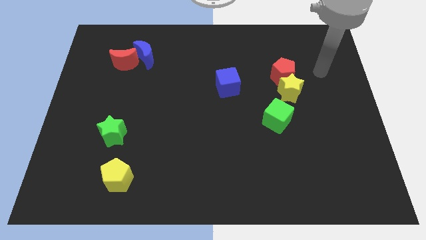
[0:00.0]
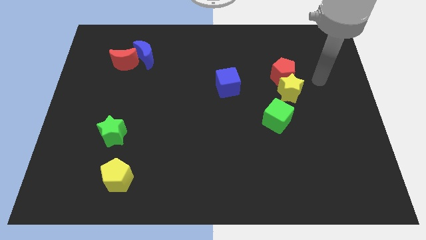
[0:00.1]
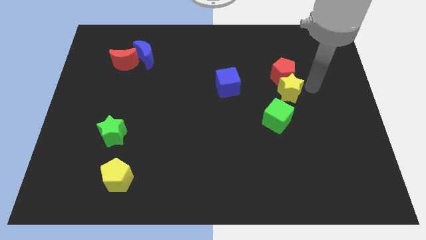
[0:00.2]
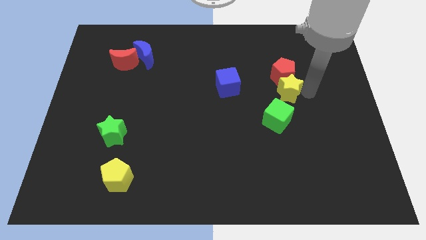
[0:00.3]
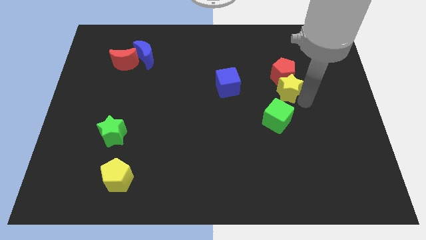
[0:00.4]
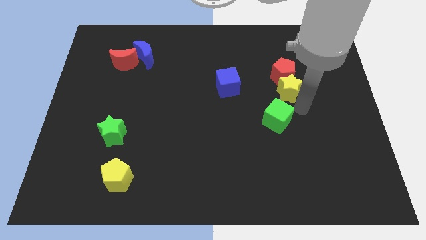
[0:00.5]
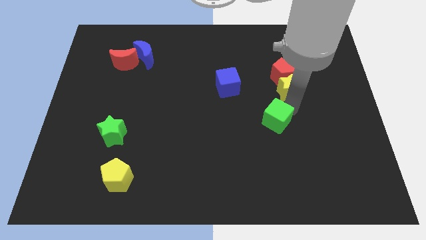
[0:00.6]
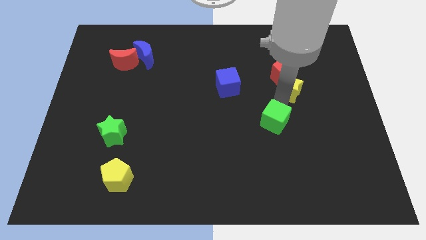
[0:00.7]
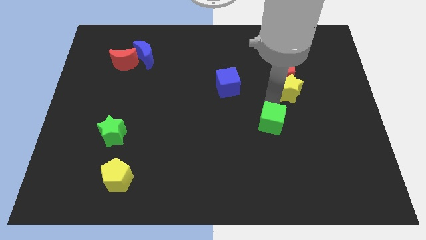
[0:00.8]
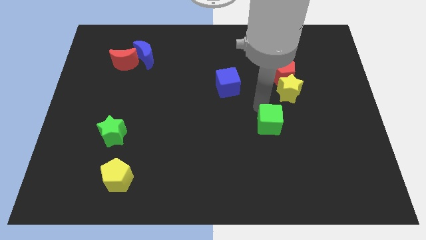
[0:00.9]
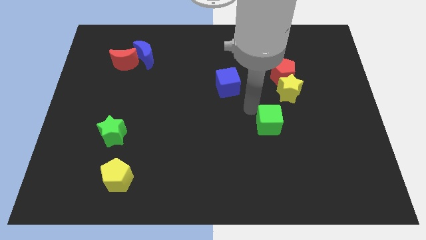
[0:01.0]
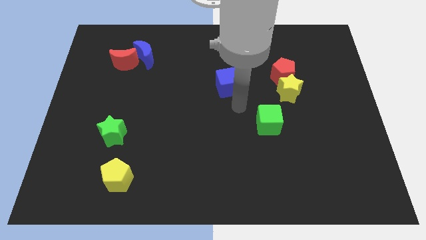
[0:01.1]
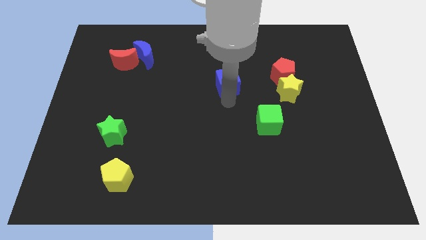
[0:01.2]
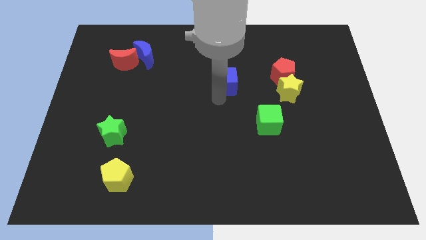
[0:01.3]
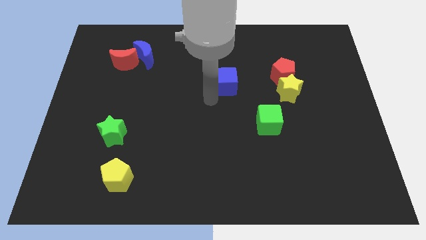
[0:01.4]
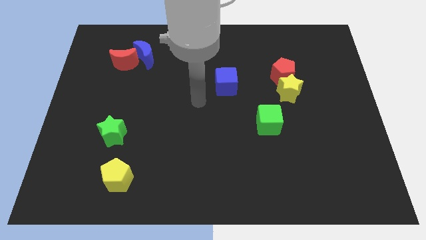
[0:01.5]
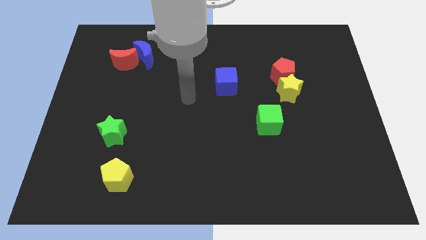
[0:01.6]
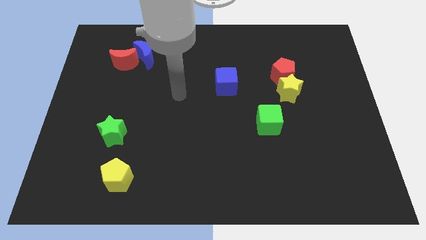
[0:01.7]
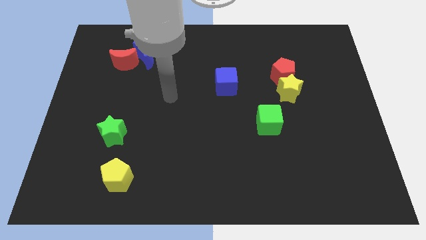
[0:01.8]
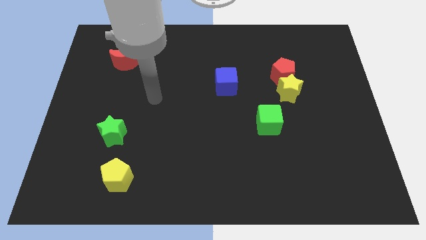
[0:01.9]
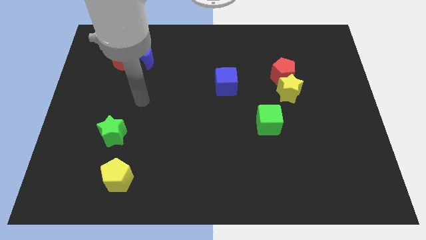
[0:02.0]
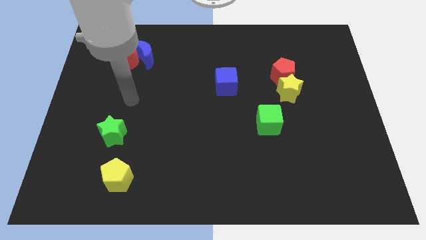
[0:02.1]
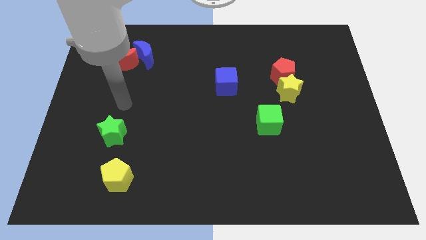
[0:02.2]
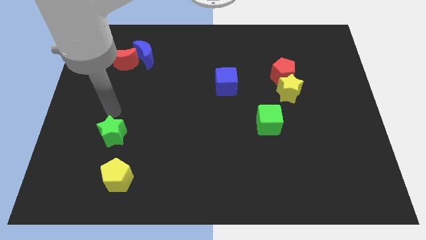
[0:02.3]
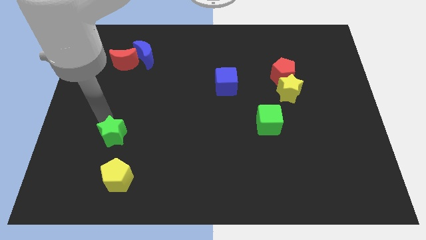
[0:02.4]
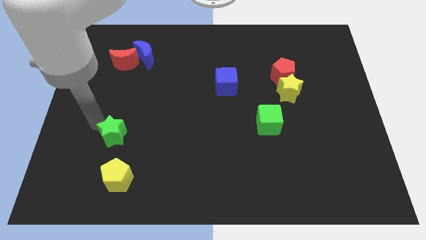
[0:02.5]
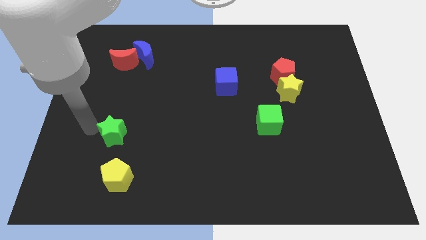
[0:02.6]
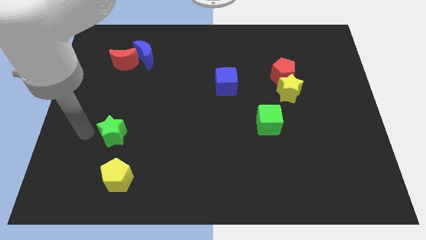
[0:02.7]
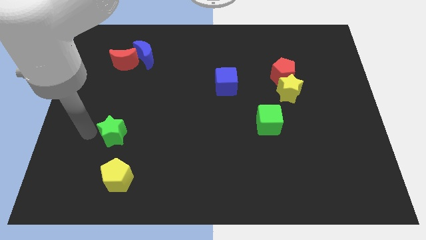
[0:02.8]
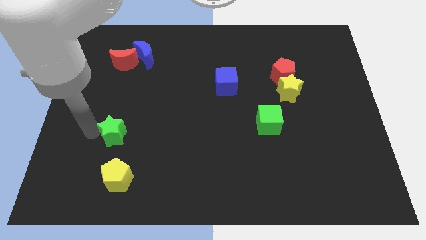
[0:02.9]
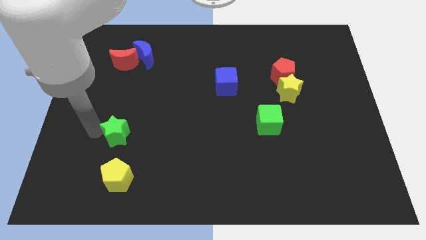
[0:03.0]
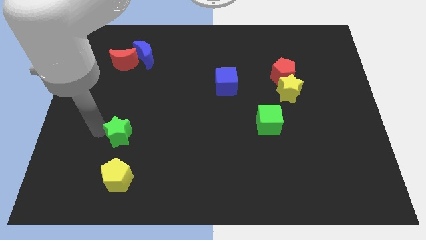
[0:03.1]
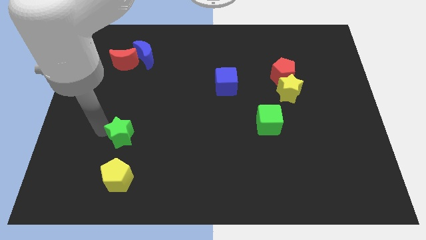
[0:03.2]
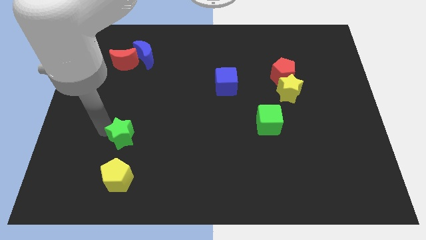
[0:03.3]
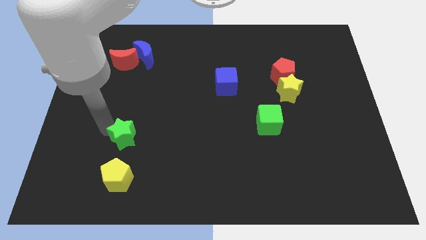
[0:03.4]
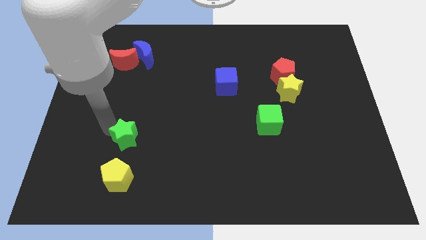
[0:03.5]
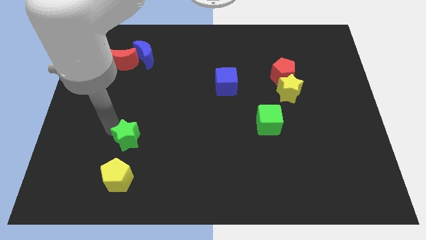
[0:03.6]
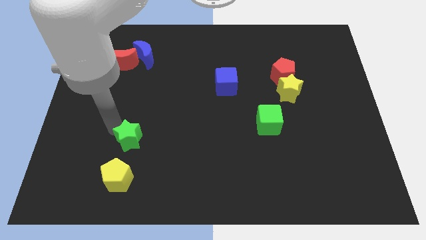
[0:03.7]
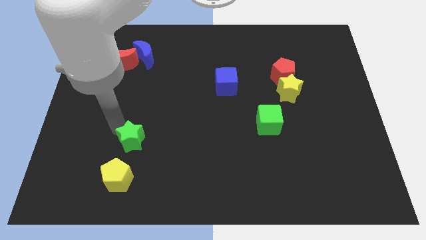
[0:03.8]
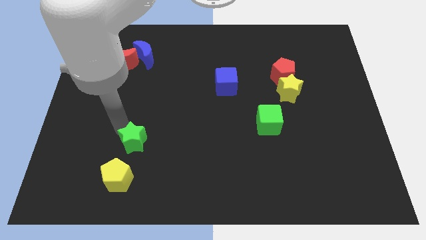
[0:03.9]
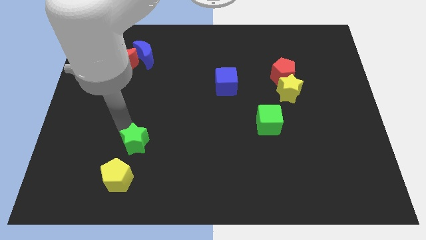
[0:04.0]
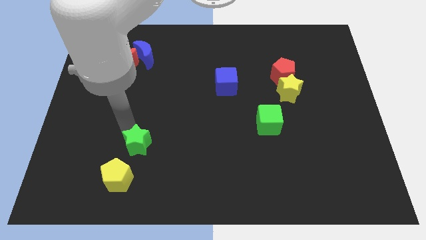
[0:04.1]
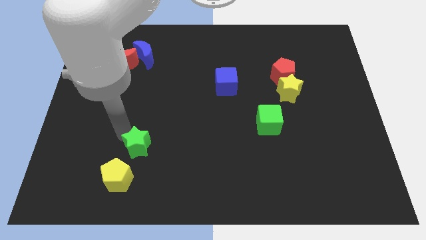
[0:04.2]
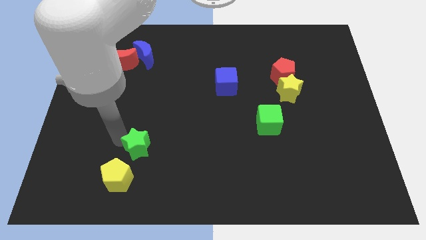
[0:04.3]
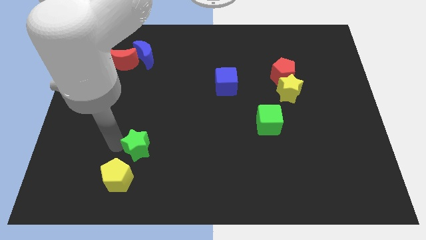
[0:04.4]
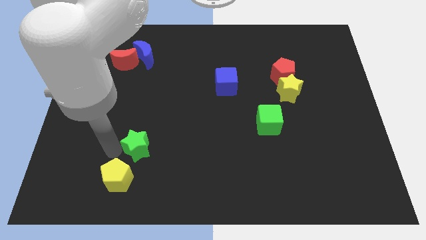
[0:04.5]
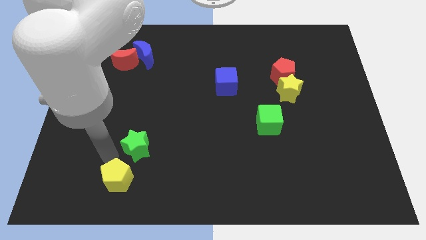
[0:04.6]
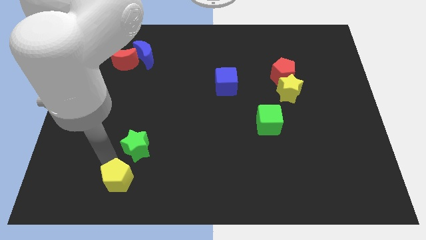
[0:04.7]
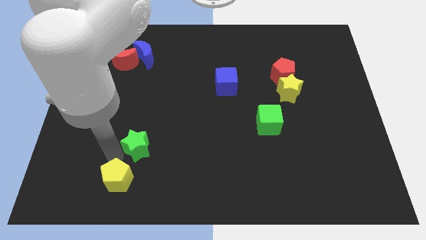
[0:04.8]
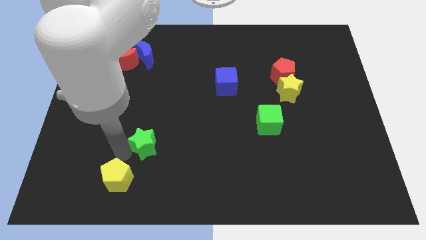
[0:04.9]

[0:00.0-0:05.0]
move the green star a bit to the right

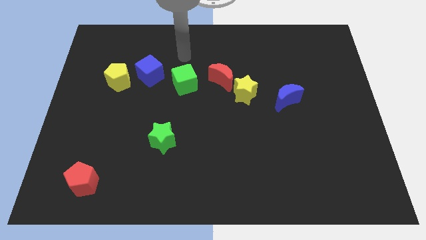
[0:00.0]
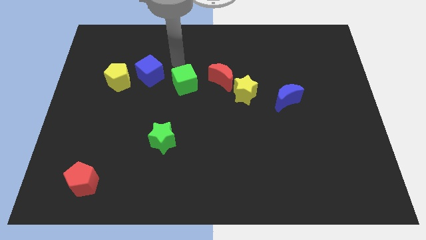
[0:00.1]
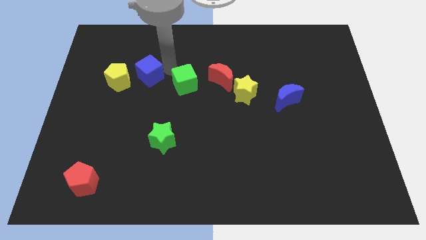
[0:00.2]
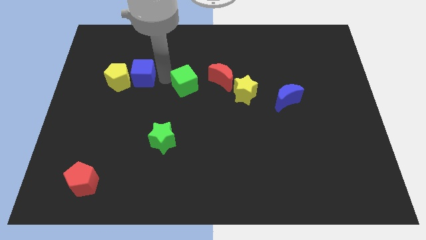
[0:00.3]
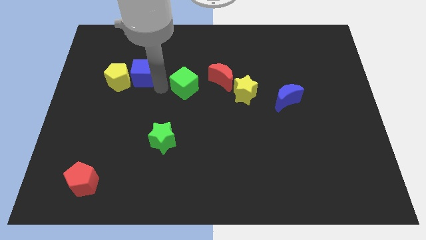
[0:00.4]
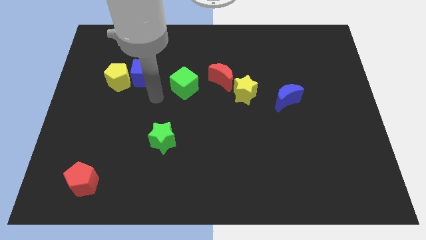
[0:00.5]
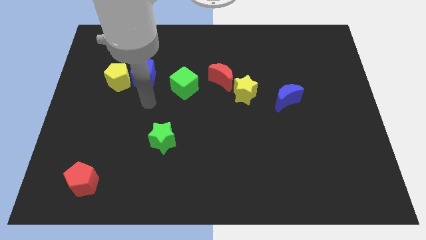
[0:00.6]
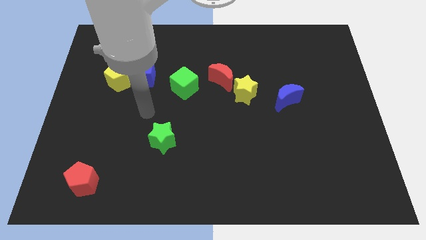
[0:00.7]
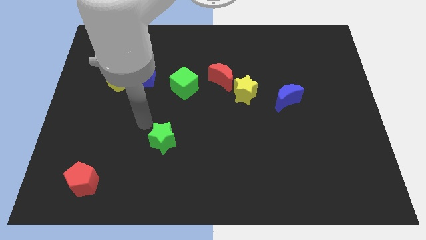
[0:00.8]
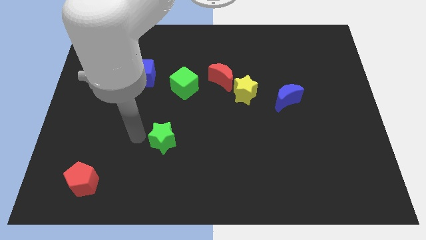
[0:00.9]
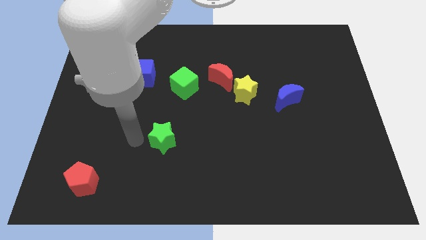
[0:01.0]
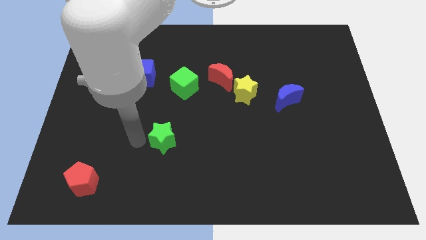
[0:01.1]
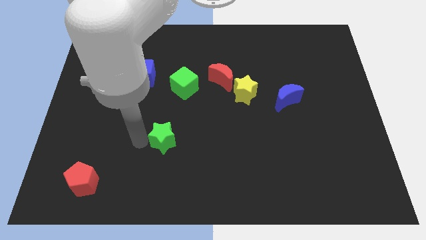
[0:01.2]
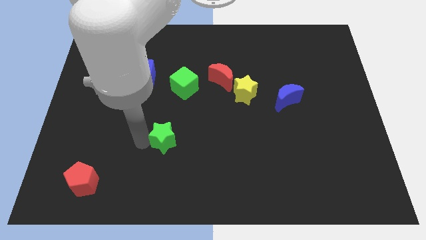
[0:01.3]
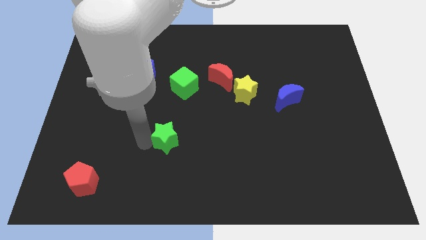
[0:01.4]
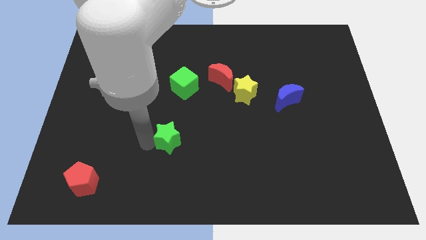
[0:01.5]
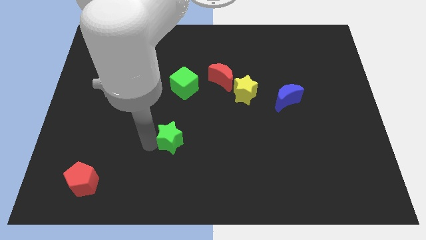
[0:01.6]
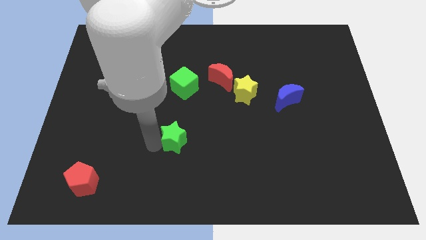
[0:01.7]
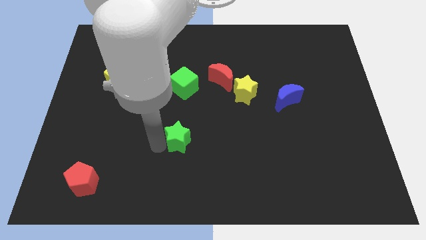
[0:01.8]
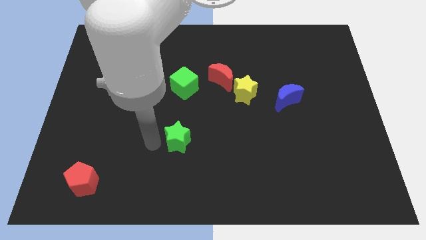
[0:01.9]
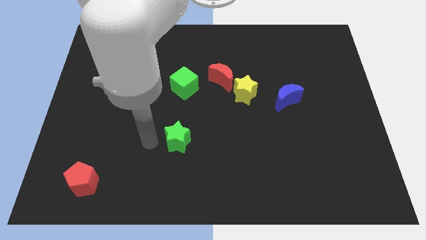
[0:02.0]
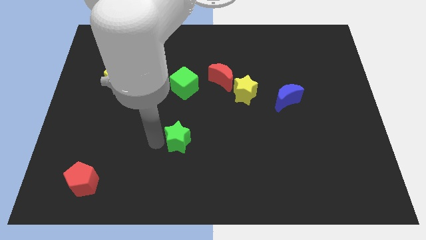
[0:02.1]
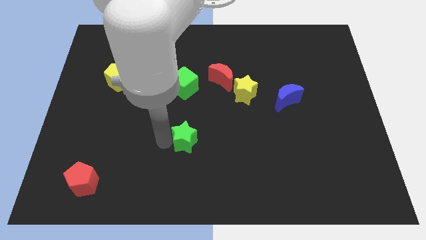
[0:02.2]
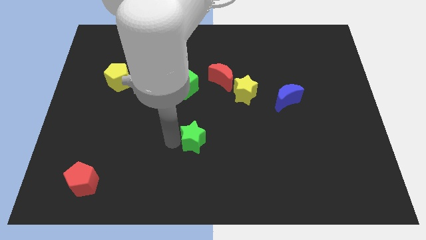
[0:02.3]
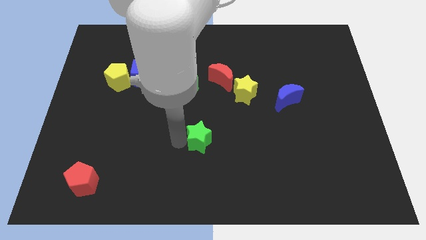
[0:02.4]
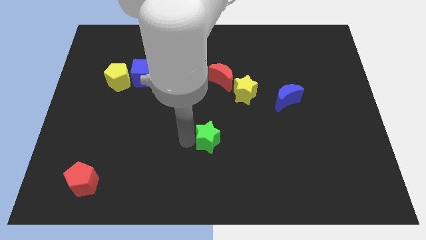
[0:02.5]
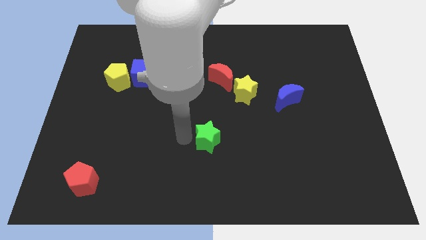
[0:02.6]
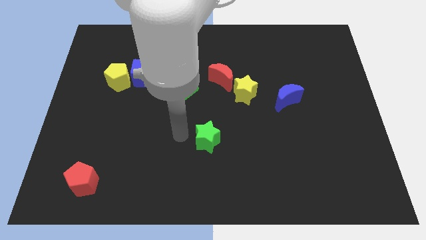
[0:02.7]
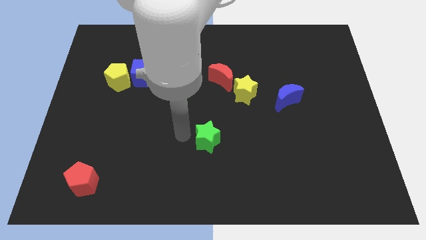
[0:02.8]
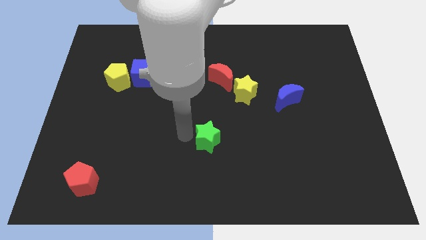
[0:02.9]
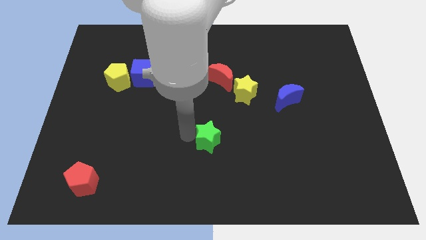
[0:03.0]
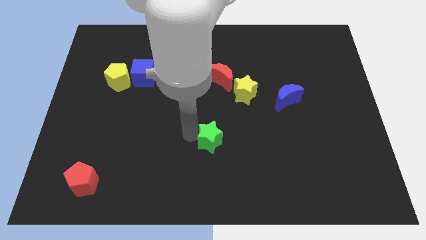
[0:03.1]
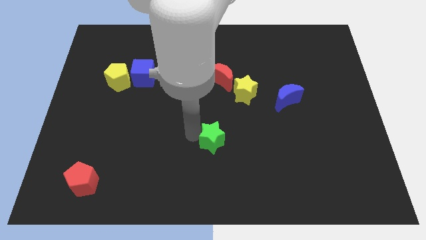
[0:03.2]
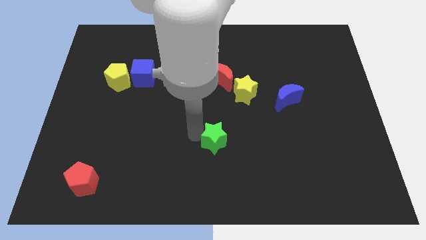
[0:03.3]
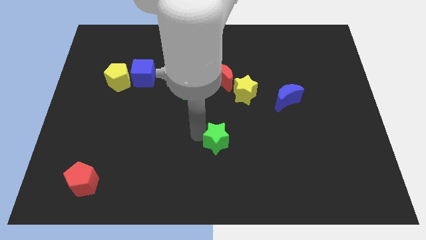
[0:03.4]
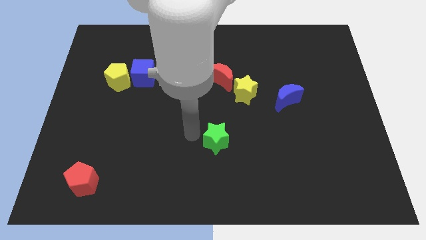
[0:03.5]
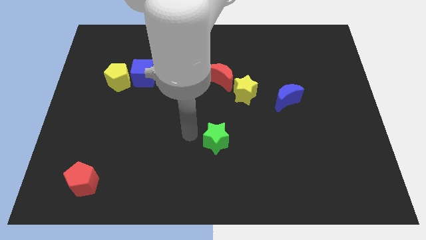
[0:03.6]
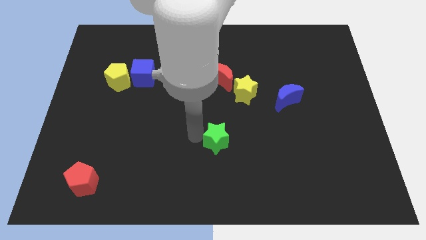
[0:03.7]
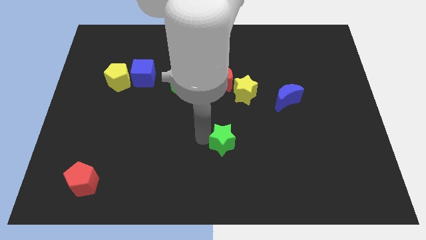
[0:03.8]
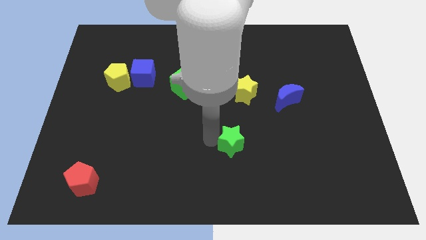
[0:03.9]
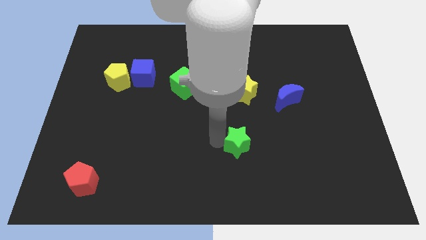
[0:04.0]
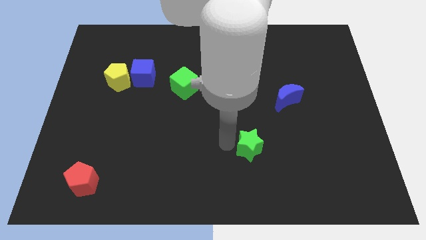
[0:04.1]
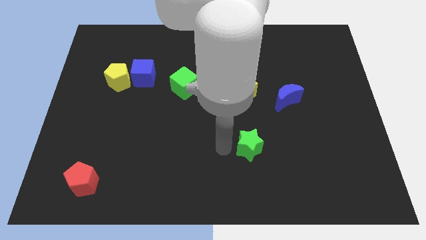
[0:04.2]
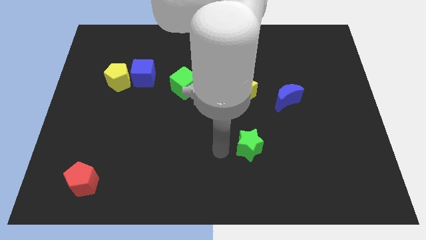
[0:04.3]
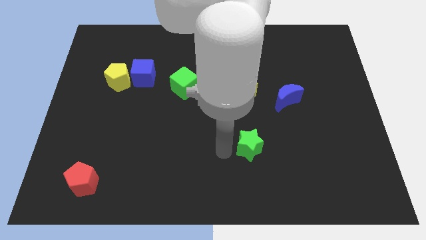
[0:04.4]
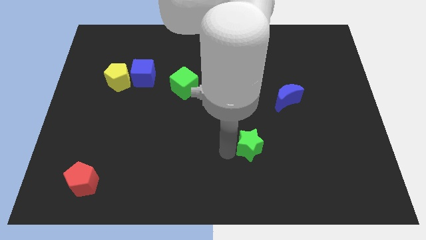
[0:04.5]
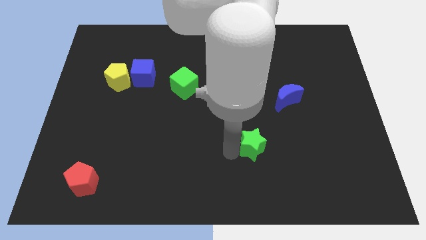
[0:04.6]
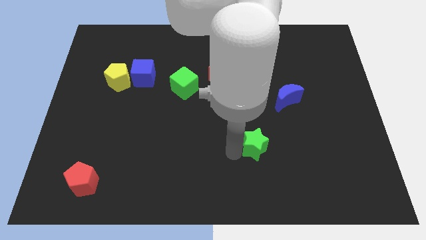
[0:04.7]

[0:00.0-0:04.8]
move the green star to the right
